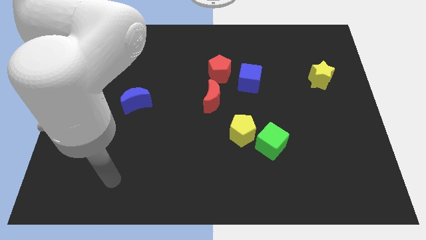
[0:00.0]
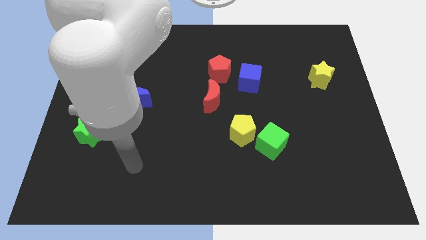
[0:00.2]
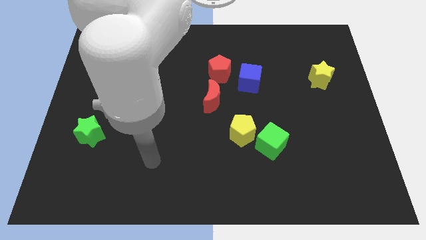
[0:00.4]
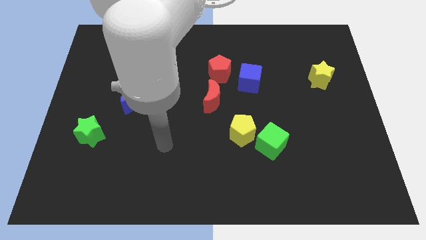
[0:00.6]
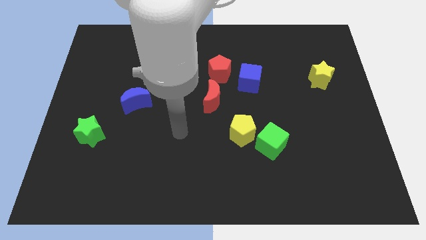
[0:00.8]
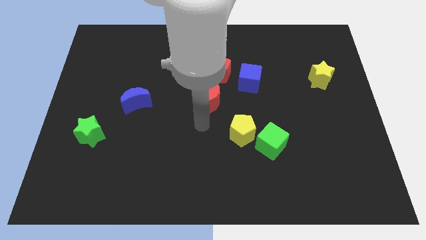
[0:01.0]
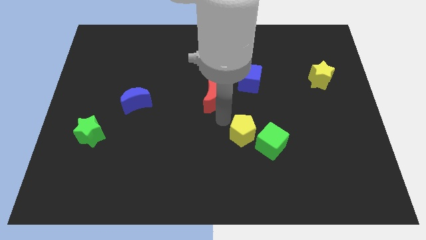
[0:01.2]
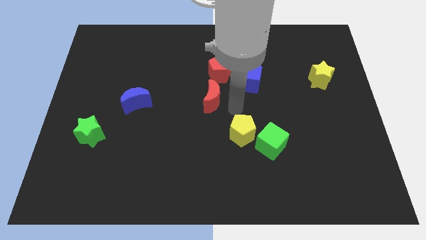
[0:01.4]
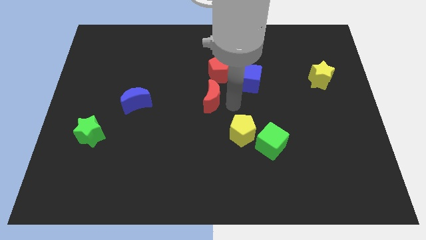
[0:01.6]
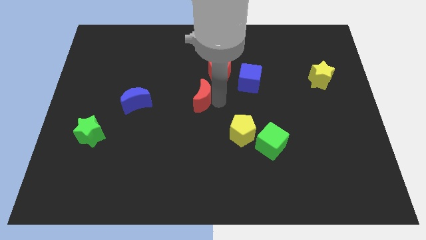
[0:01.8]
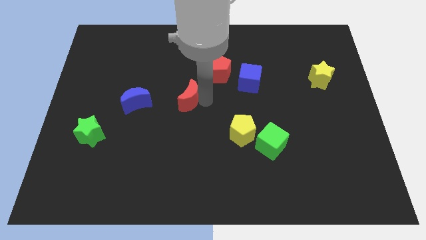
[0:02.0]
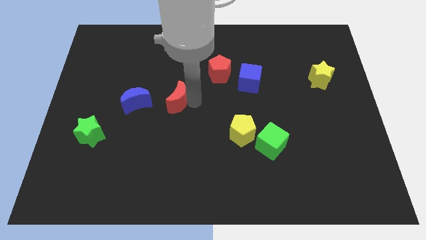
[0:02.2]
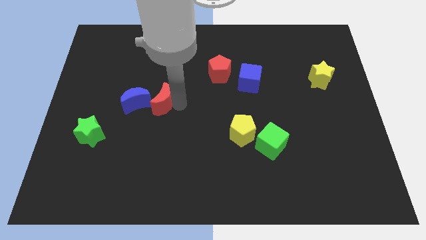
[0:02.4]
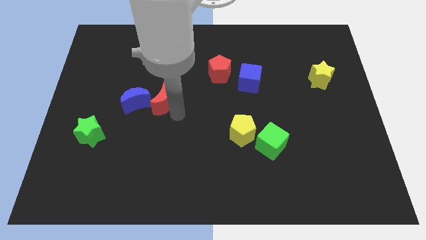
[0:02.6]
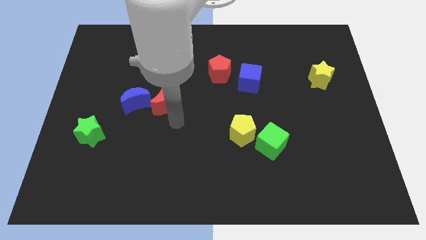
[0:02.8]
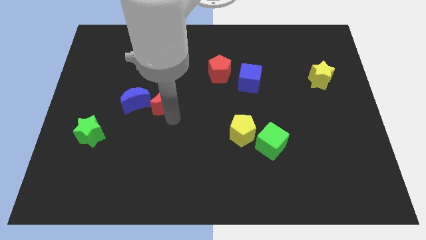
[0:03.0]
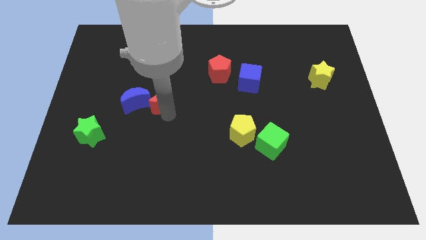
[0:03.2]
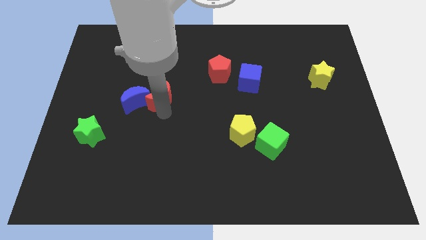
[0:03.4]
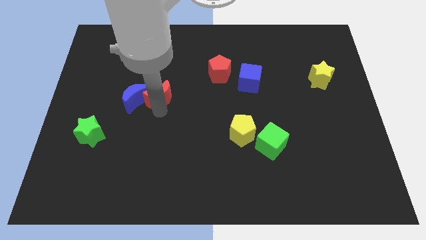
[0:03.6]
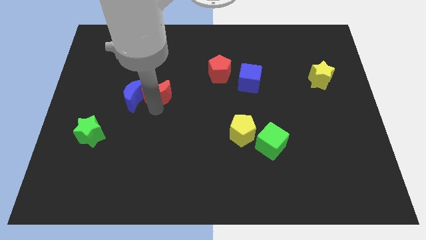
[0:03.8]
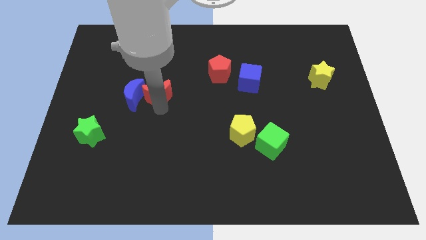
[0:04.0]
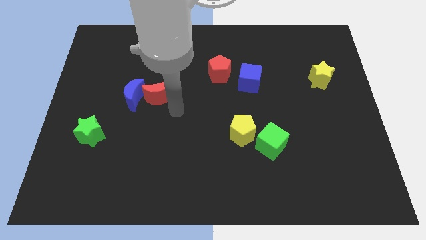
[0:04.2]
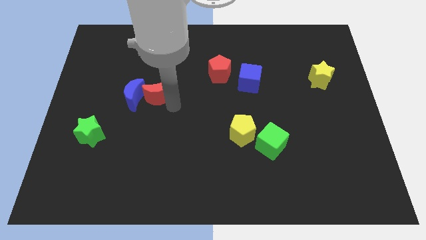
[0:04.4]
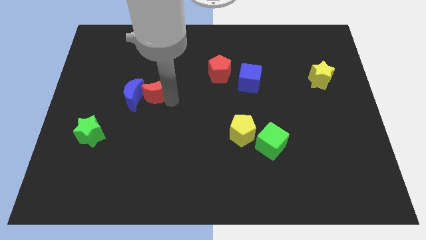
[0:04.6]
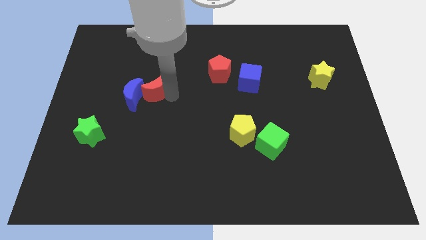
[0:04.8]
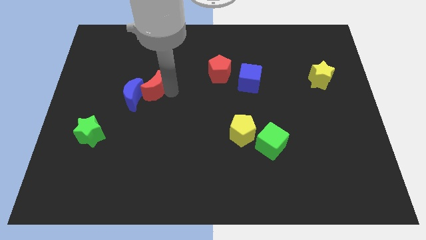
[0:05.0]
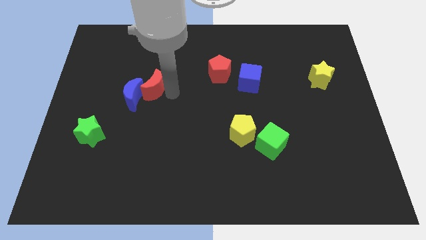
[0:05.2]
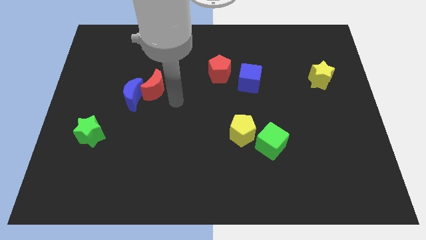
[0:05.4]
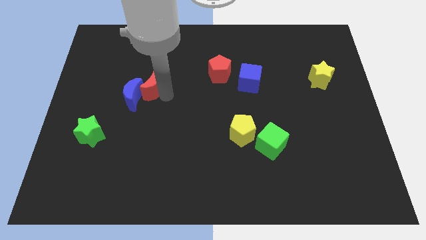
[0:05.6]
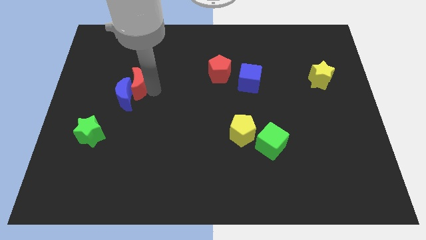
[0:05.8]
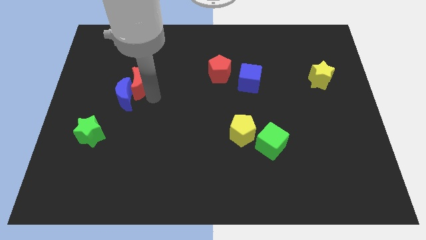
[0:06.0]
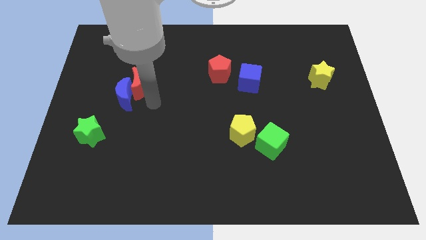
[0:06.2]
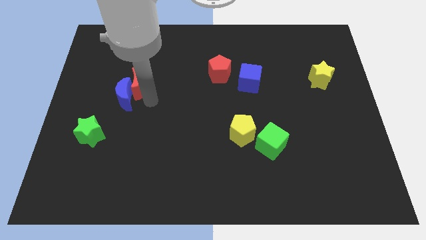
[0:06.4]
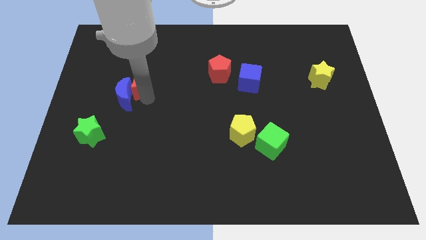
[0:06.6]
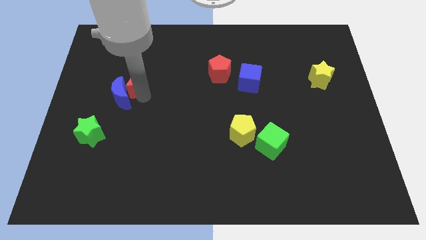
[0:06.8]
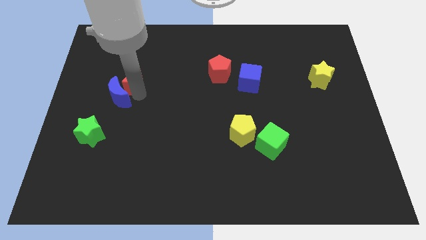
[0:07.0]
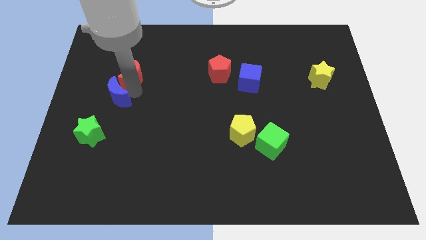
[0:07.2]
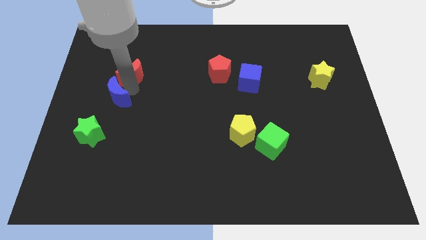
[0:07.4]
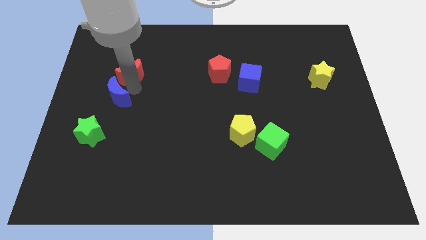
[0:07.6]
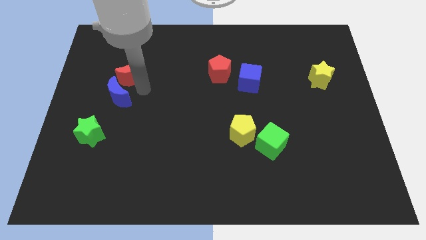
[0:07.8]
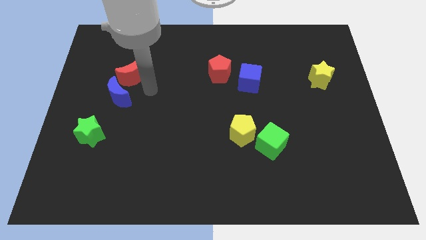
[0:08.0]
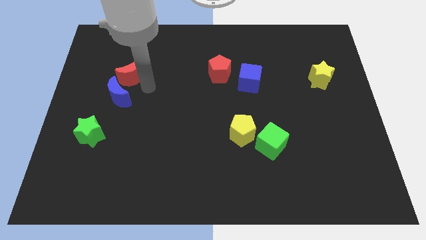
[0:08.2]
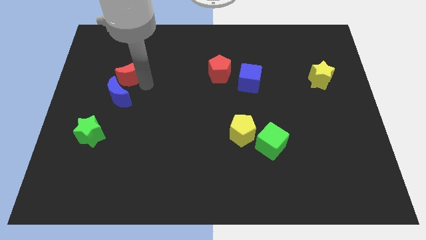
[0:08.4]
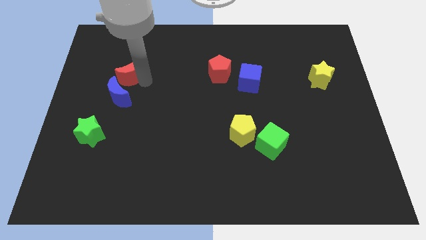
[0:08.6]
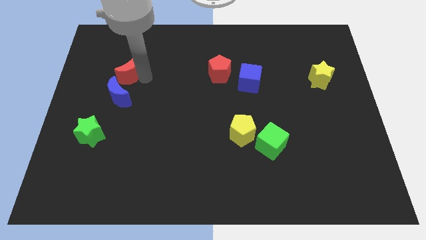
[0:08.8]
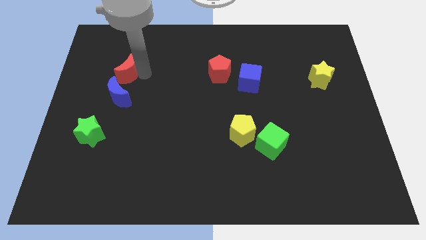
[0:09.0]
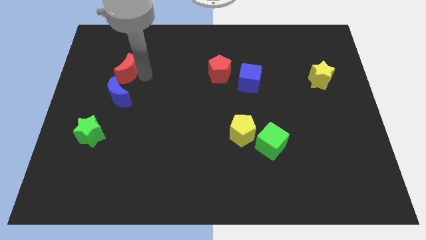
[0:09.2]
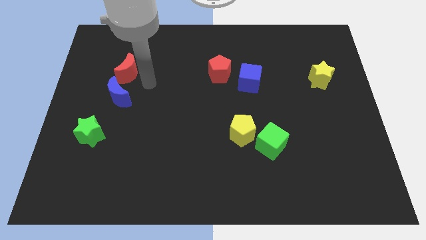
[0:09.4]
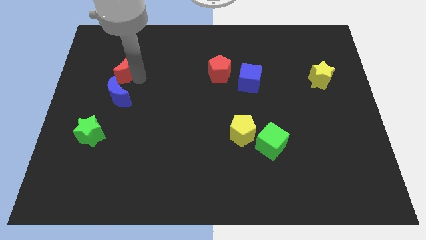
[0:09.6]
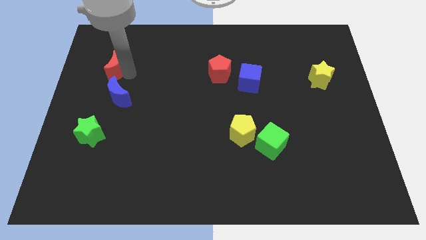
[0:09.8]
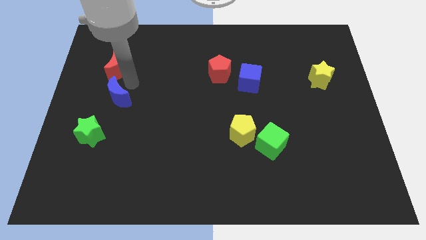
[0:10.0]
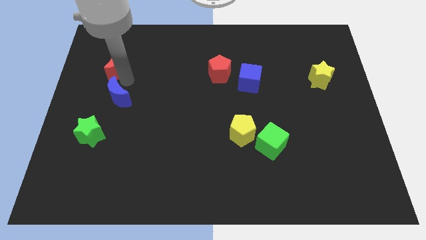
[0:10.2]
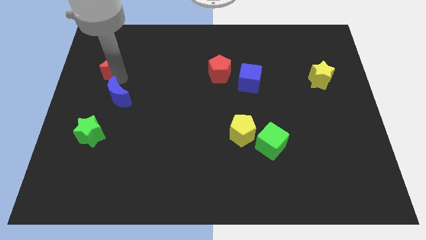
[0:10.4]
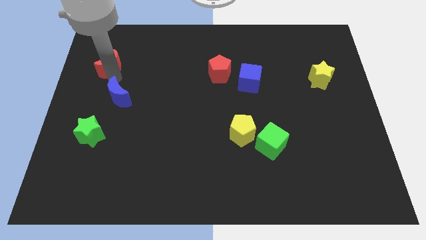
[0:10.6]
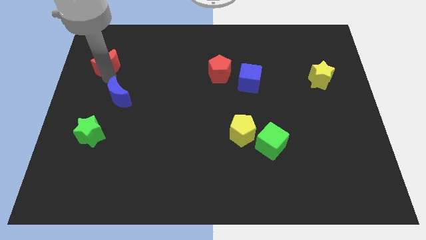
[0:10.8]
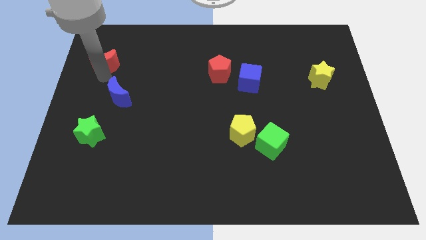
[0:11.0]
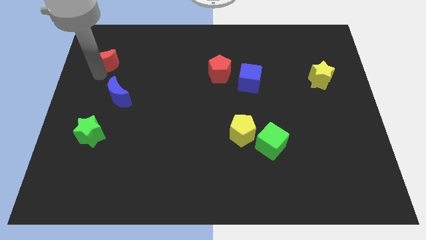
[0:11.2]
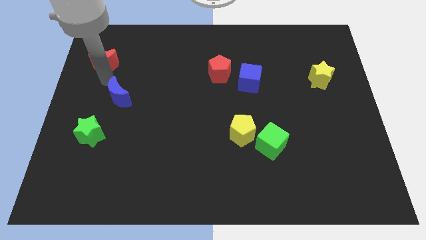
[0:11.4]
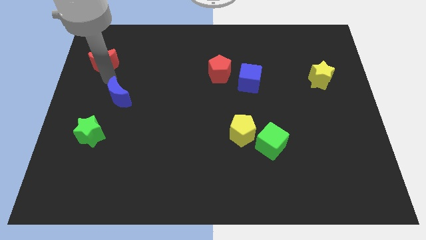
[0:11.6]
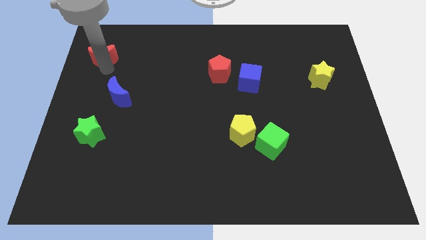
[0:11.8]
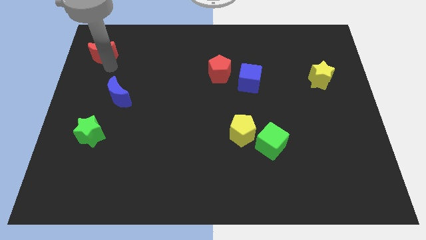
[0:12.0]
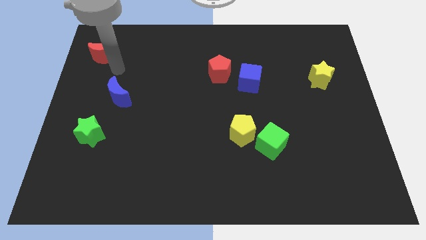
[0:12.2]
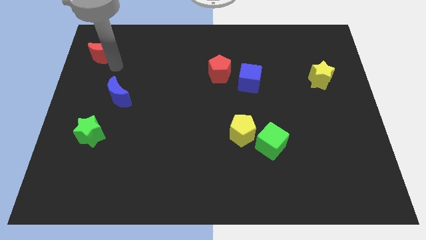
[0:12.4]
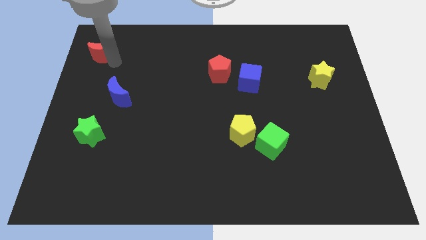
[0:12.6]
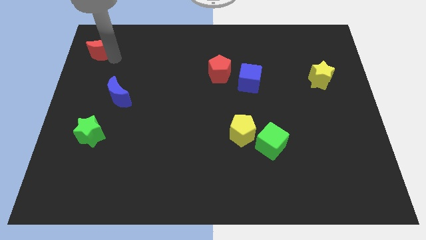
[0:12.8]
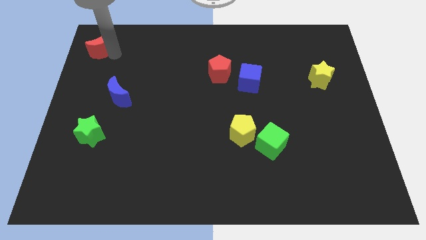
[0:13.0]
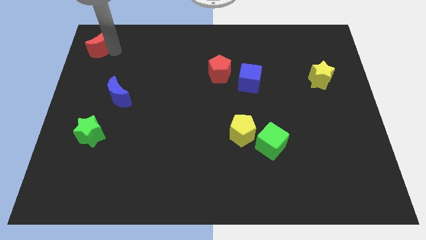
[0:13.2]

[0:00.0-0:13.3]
slide the red moon to the top left corner
